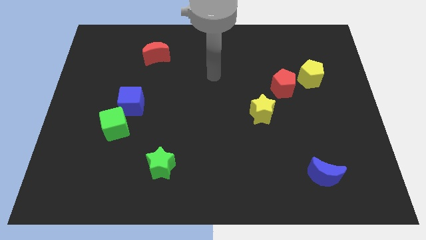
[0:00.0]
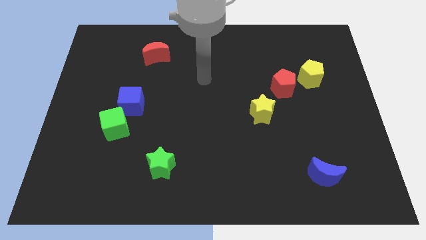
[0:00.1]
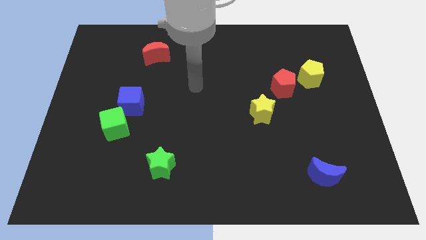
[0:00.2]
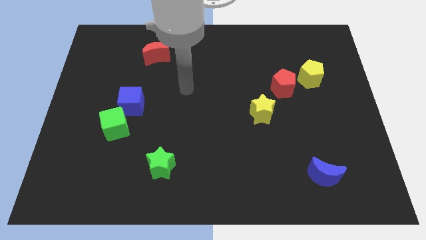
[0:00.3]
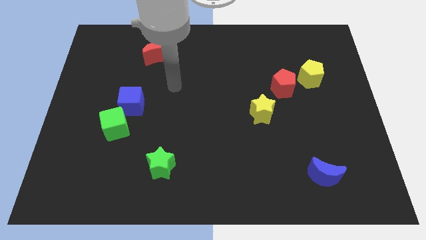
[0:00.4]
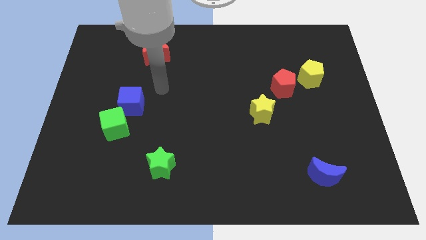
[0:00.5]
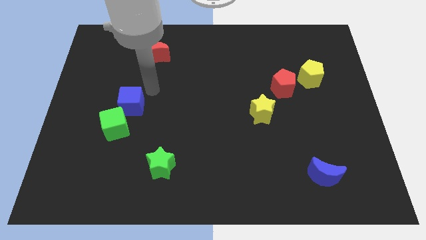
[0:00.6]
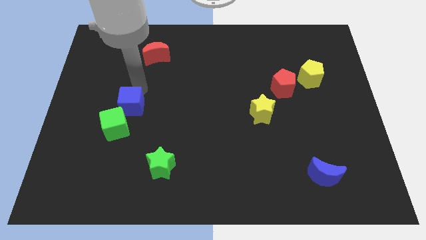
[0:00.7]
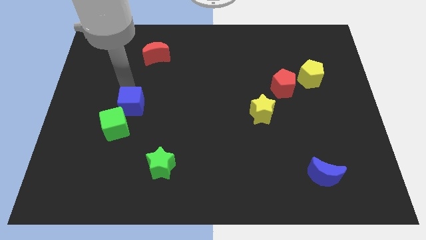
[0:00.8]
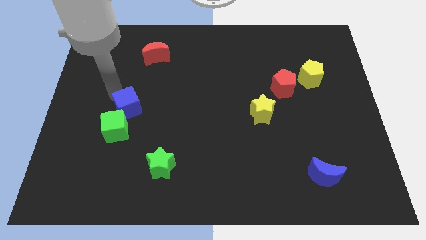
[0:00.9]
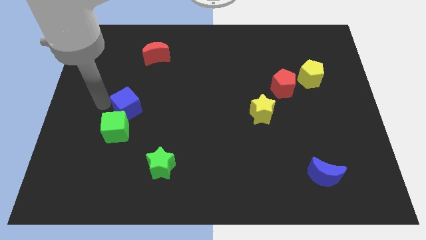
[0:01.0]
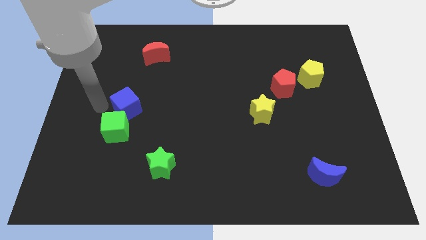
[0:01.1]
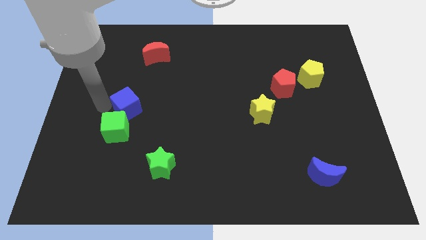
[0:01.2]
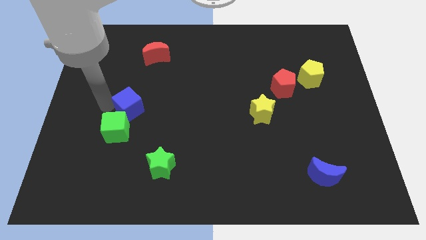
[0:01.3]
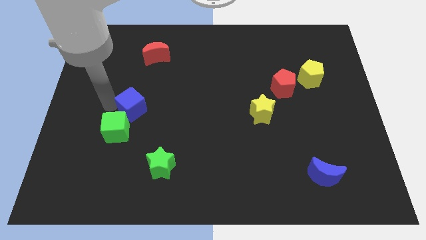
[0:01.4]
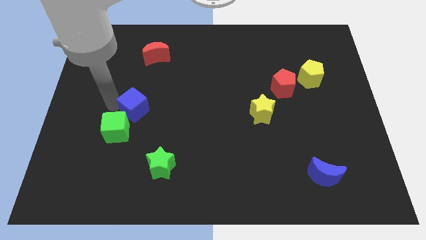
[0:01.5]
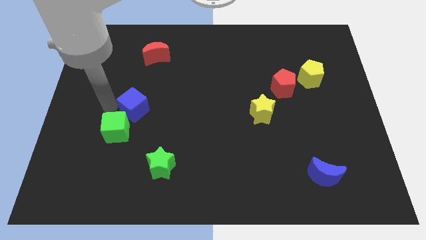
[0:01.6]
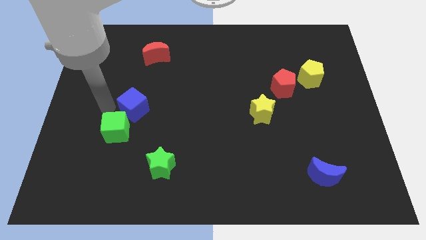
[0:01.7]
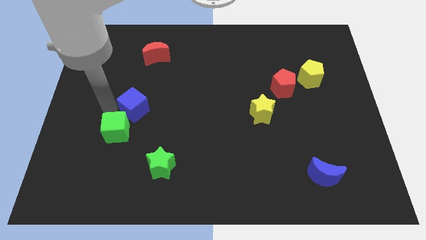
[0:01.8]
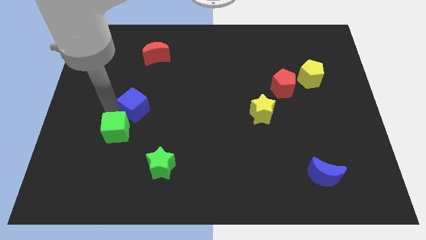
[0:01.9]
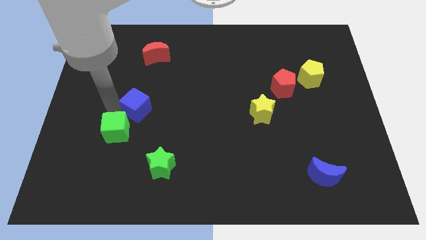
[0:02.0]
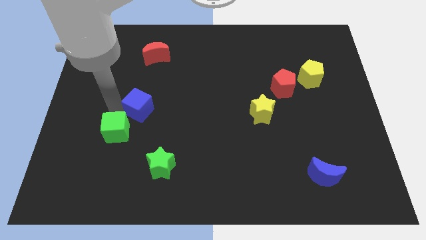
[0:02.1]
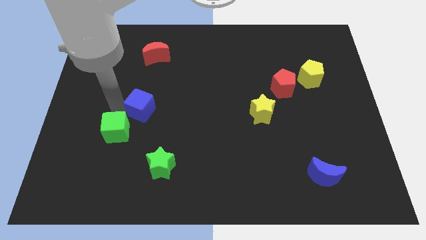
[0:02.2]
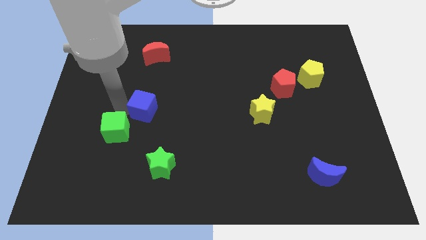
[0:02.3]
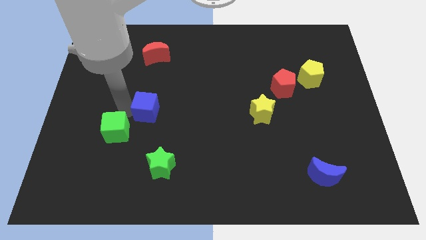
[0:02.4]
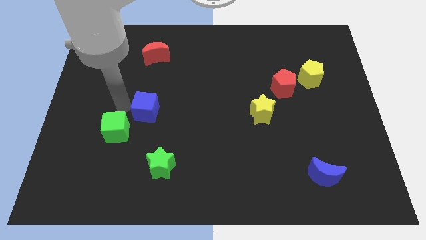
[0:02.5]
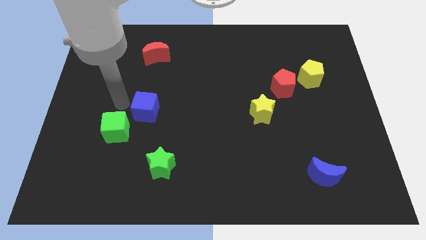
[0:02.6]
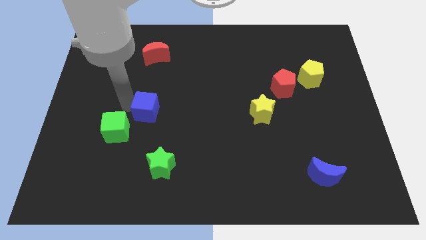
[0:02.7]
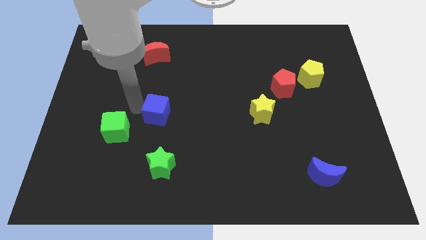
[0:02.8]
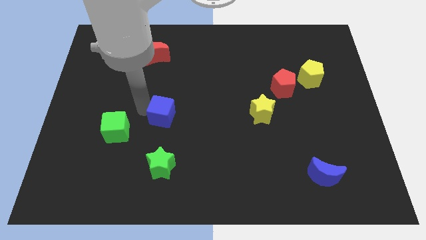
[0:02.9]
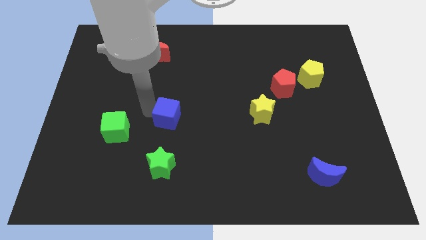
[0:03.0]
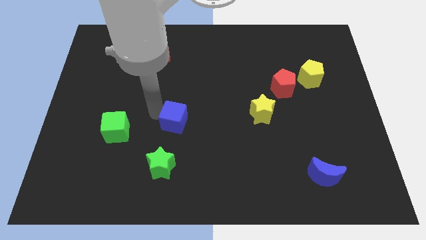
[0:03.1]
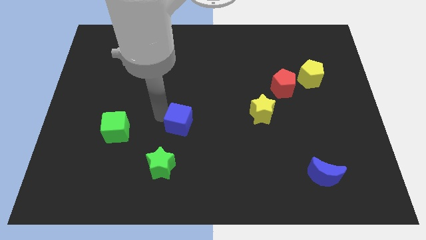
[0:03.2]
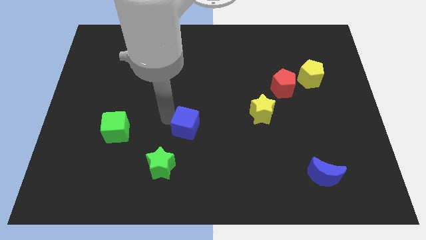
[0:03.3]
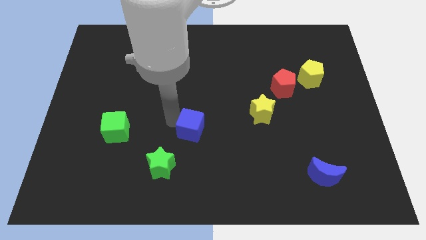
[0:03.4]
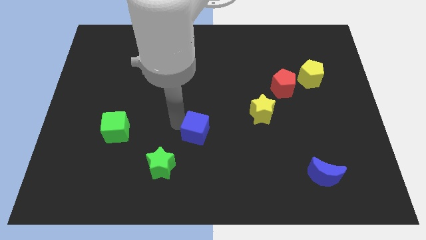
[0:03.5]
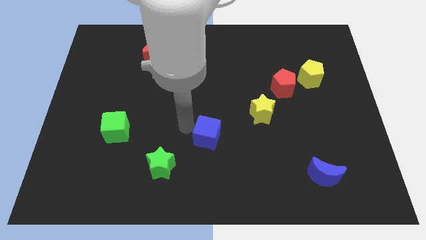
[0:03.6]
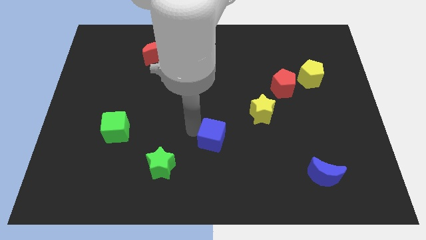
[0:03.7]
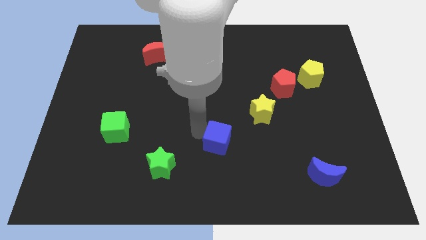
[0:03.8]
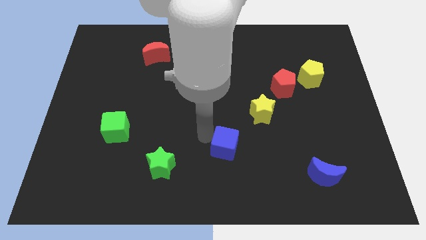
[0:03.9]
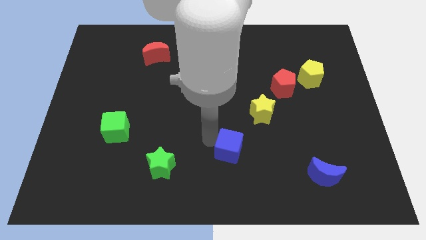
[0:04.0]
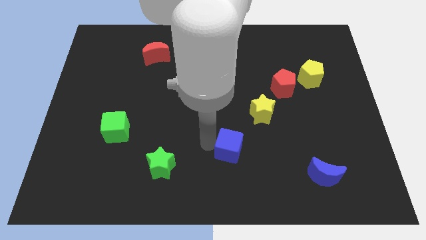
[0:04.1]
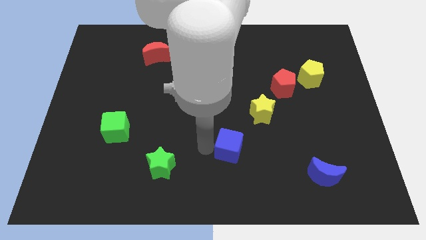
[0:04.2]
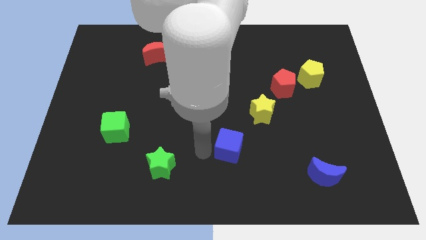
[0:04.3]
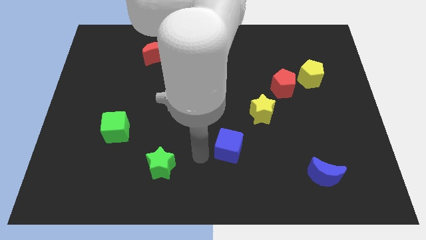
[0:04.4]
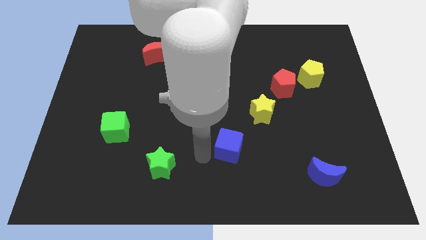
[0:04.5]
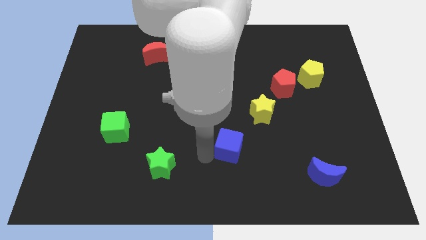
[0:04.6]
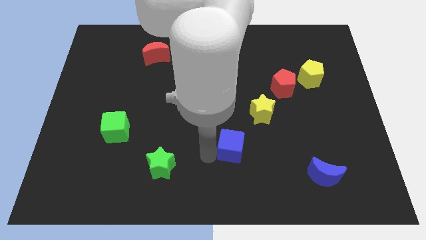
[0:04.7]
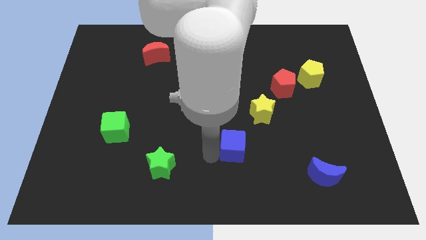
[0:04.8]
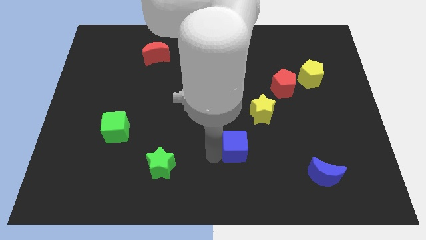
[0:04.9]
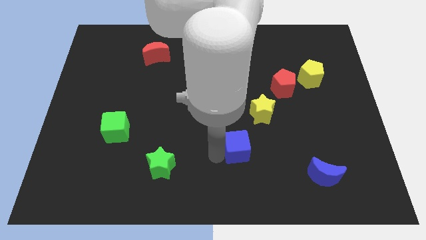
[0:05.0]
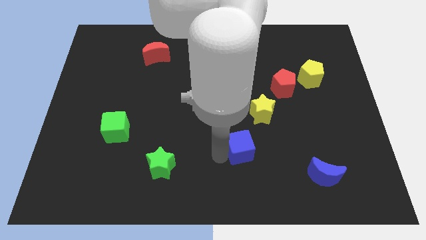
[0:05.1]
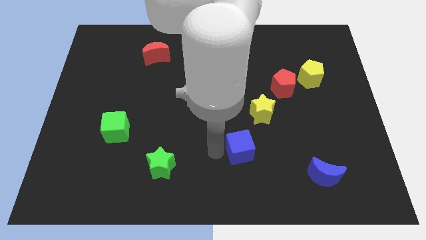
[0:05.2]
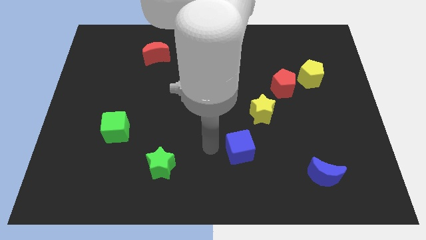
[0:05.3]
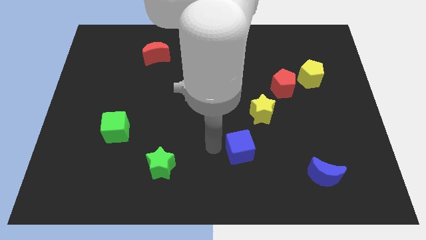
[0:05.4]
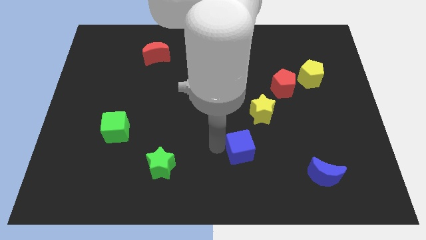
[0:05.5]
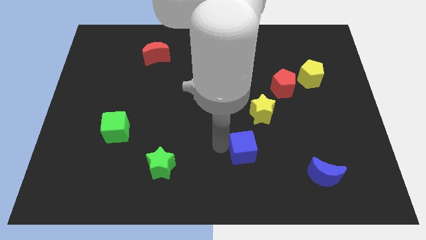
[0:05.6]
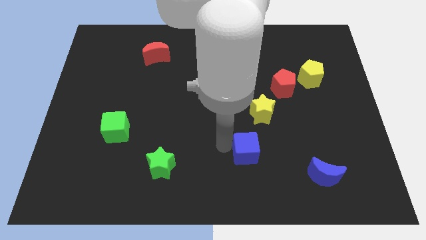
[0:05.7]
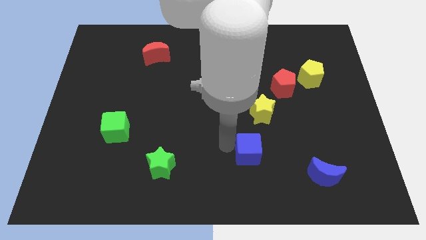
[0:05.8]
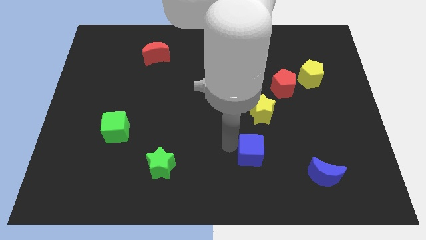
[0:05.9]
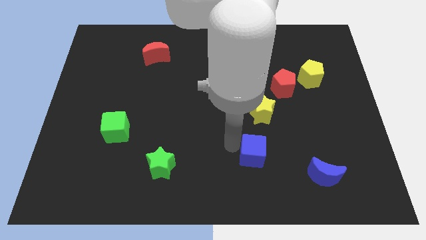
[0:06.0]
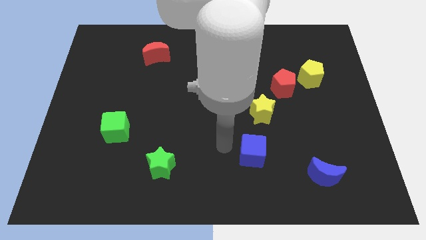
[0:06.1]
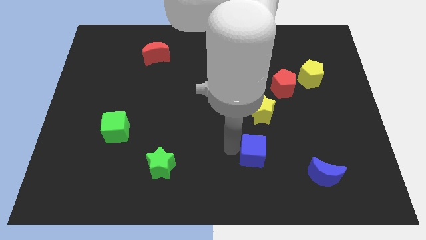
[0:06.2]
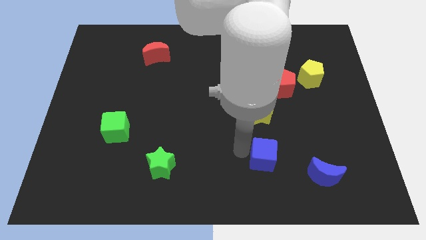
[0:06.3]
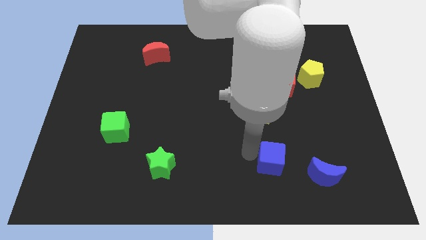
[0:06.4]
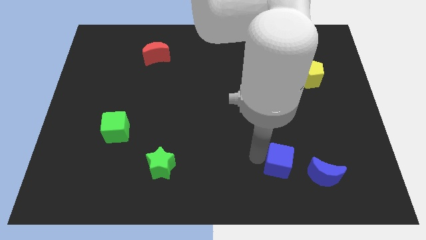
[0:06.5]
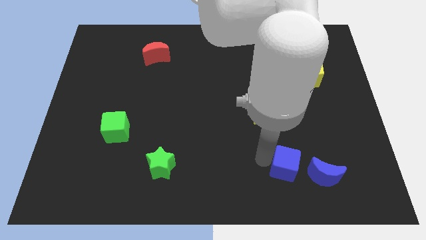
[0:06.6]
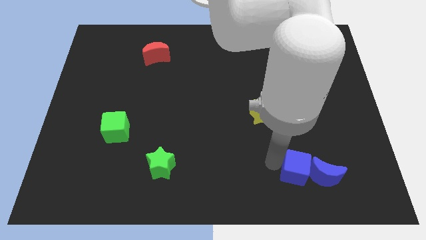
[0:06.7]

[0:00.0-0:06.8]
put the blue cube next to the blue moon

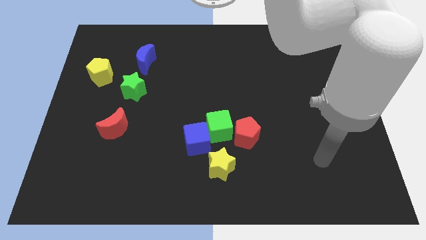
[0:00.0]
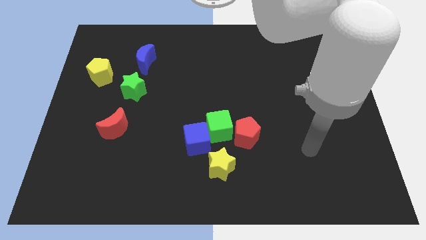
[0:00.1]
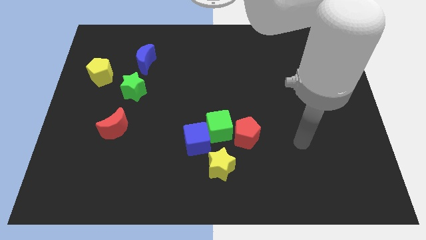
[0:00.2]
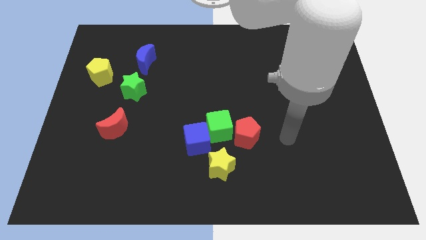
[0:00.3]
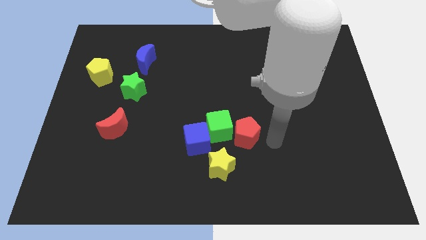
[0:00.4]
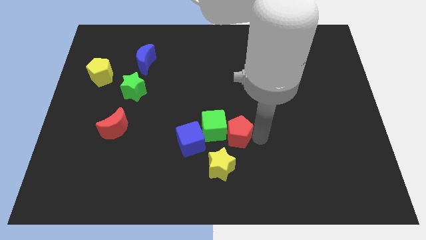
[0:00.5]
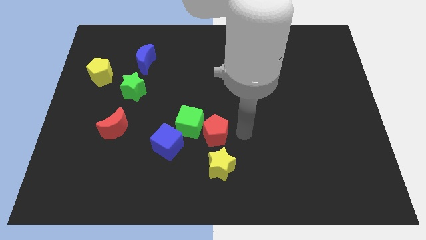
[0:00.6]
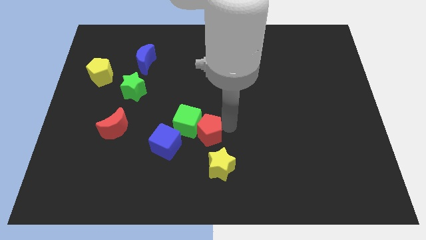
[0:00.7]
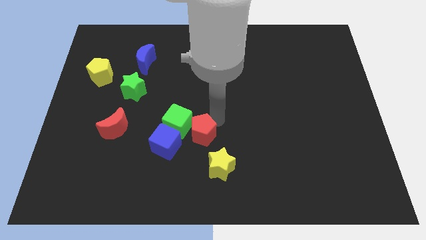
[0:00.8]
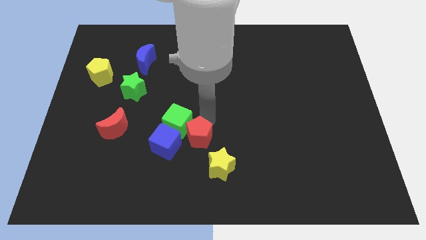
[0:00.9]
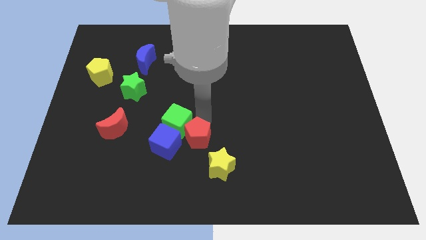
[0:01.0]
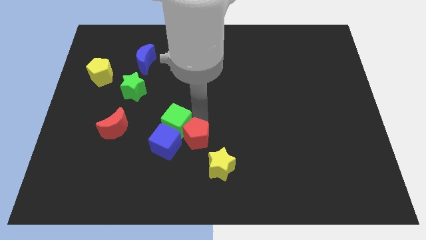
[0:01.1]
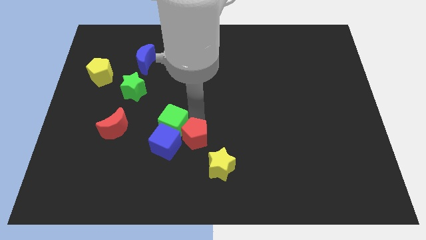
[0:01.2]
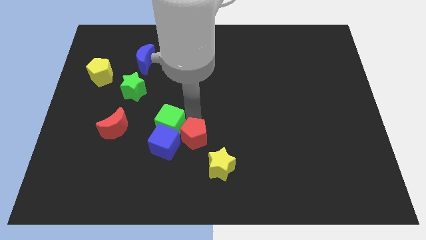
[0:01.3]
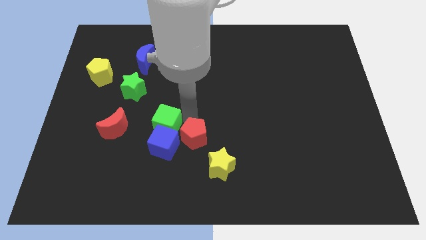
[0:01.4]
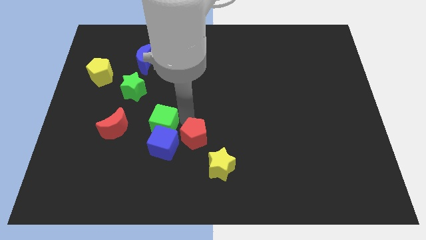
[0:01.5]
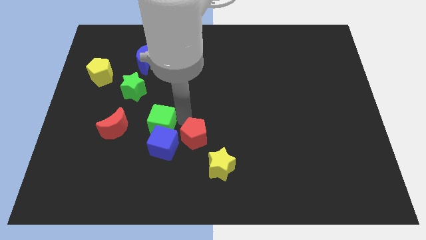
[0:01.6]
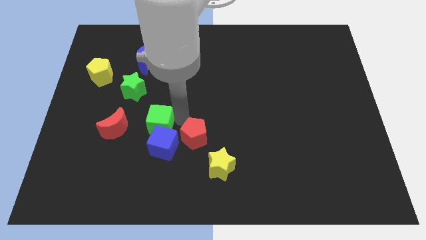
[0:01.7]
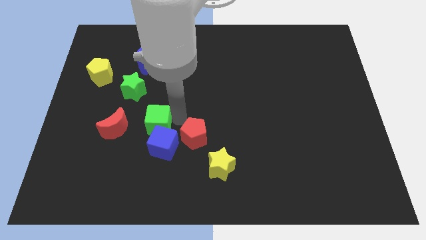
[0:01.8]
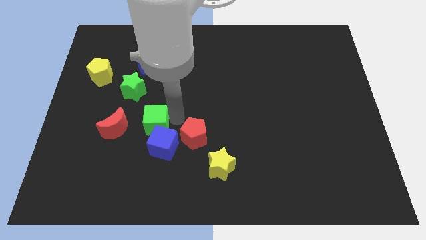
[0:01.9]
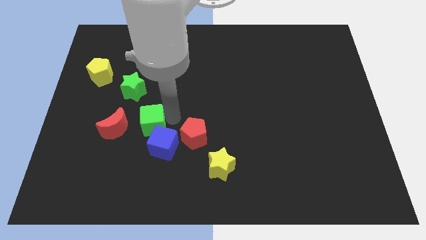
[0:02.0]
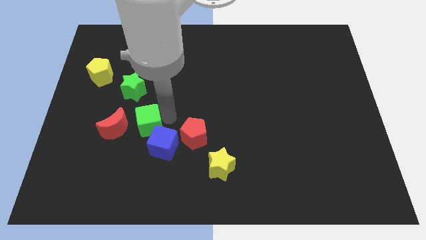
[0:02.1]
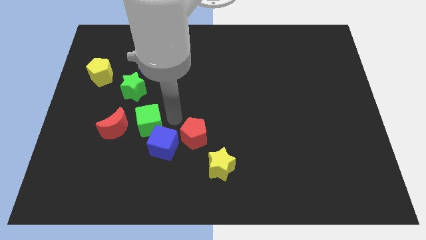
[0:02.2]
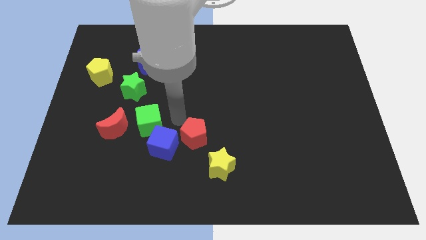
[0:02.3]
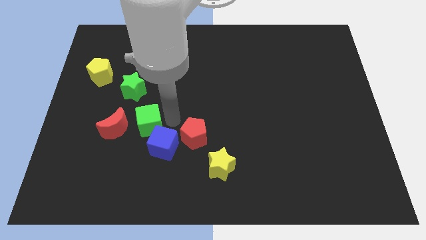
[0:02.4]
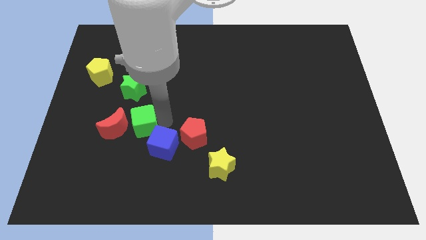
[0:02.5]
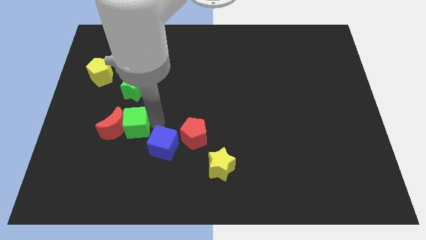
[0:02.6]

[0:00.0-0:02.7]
put the green cube close to the red moon
